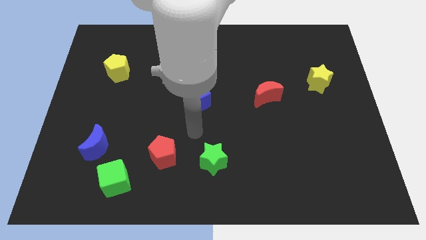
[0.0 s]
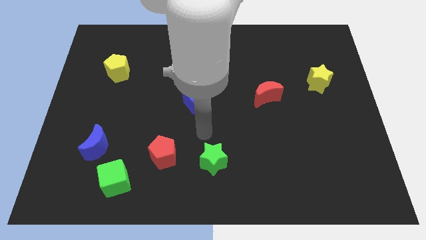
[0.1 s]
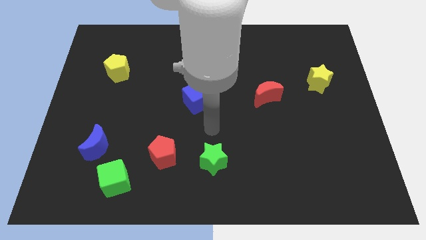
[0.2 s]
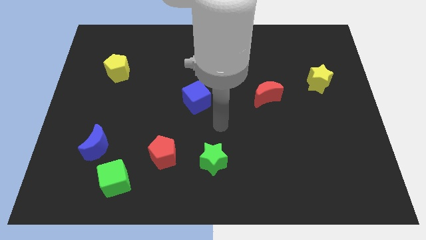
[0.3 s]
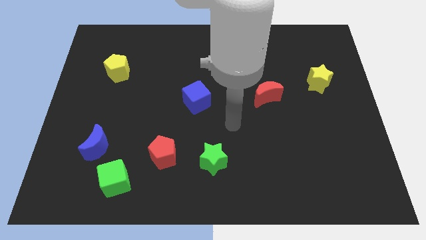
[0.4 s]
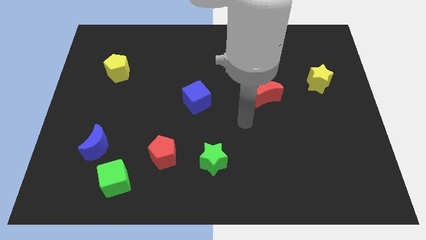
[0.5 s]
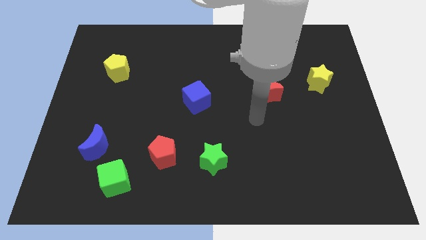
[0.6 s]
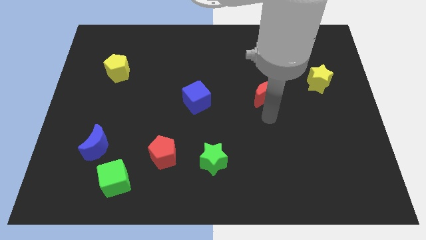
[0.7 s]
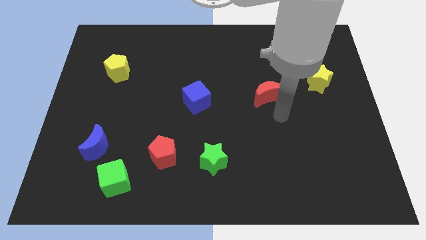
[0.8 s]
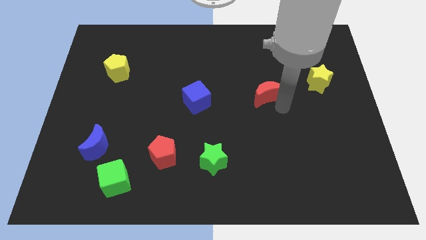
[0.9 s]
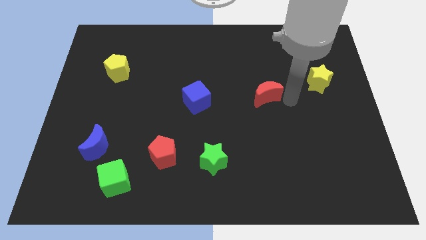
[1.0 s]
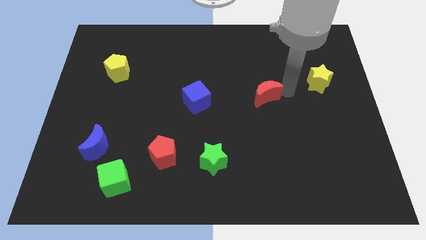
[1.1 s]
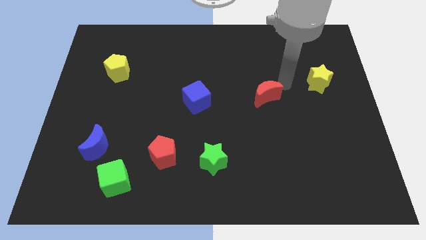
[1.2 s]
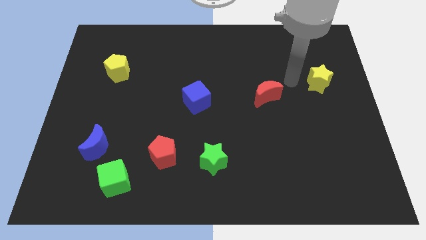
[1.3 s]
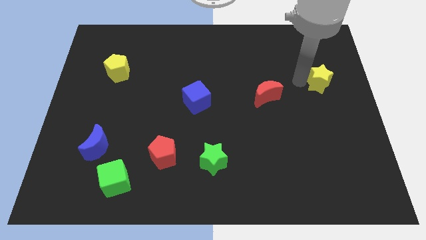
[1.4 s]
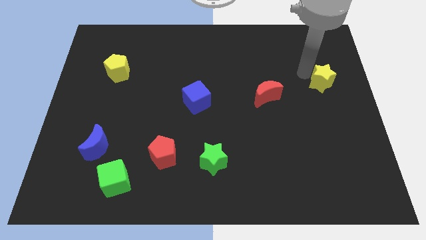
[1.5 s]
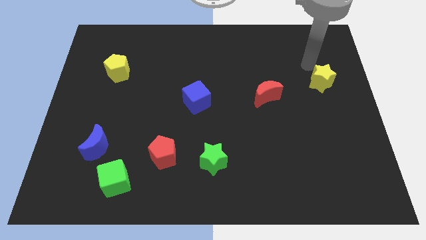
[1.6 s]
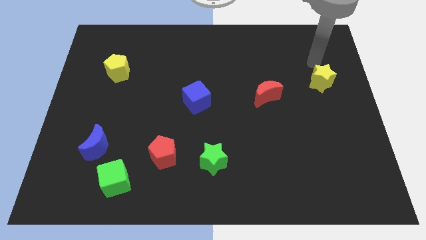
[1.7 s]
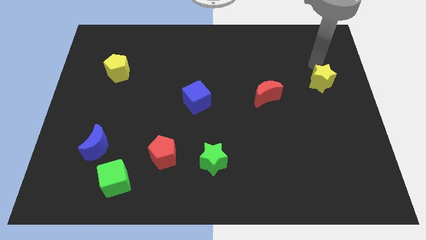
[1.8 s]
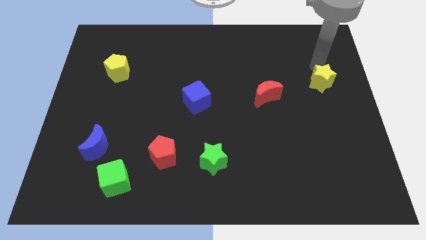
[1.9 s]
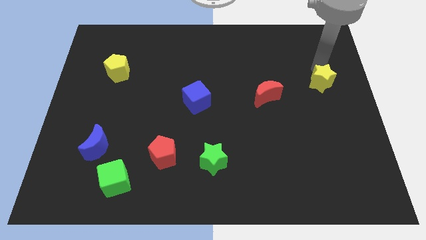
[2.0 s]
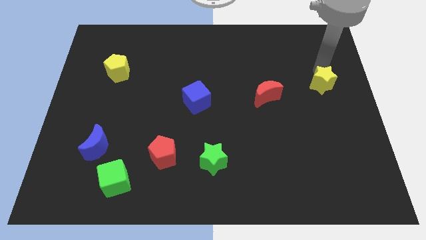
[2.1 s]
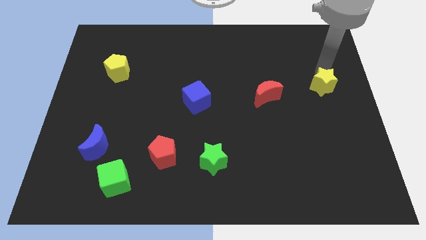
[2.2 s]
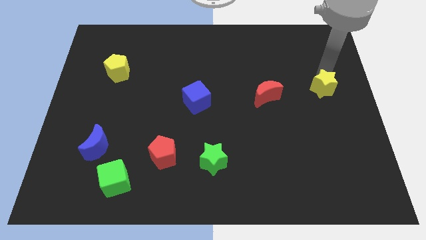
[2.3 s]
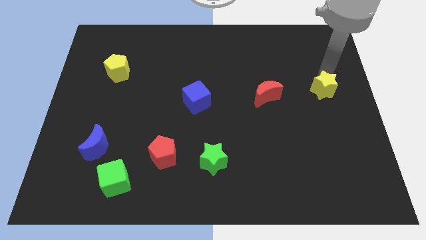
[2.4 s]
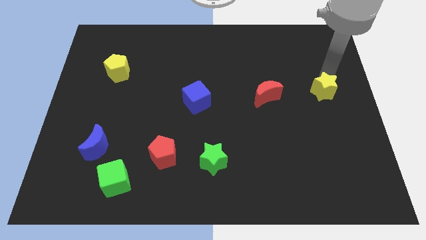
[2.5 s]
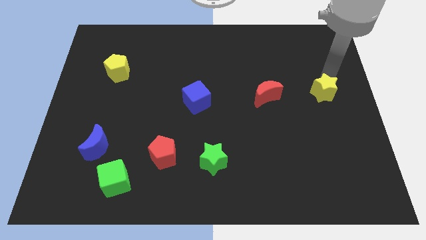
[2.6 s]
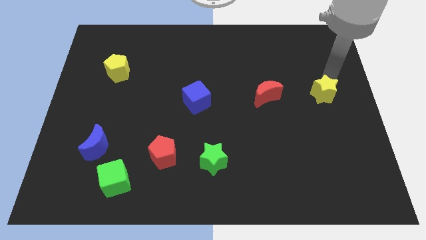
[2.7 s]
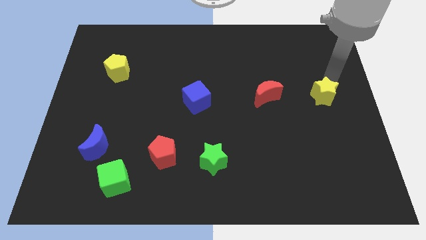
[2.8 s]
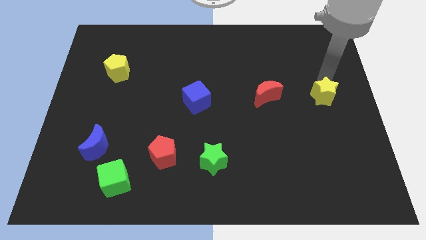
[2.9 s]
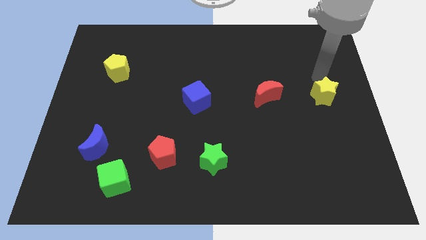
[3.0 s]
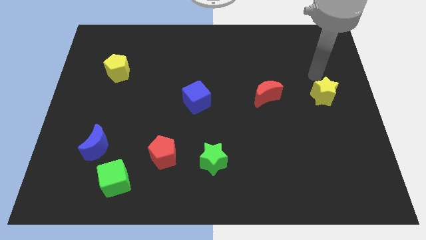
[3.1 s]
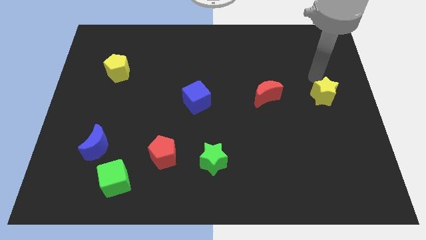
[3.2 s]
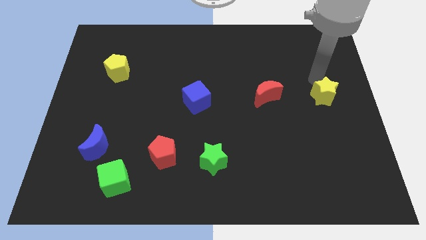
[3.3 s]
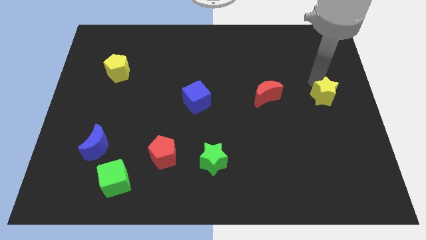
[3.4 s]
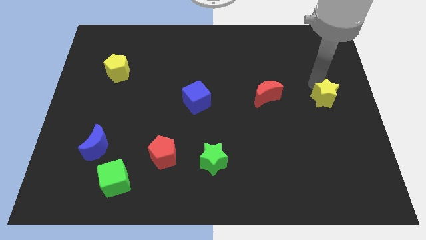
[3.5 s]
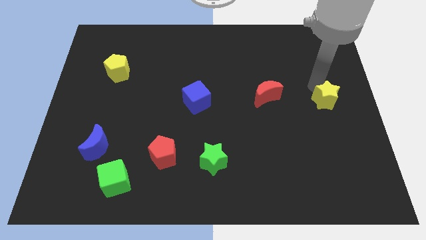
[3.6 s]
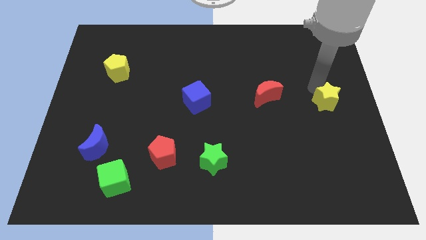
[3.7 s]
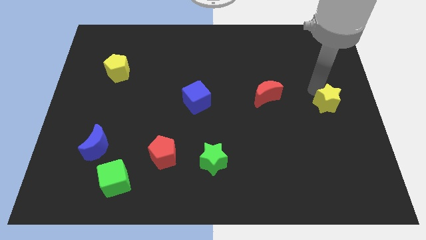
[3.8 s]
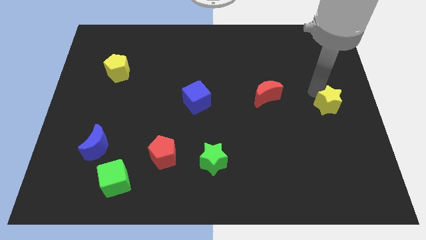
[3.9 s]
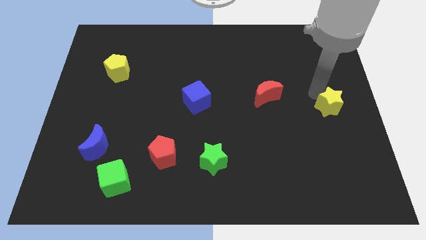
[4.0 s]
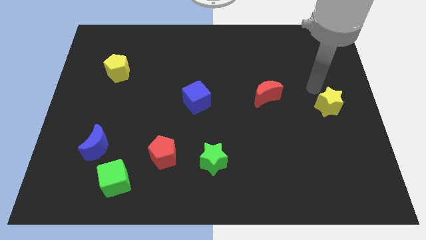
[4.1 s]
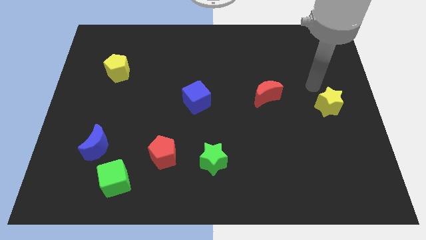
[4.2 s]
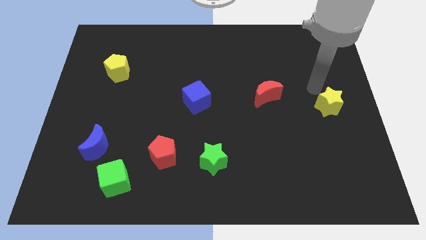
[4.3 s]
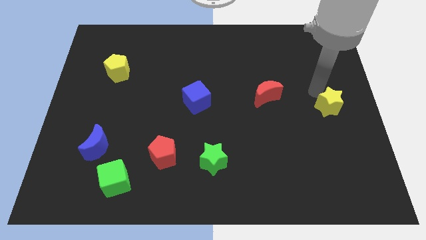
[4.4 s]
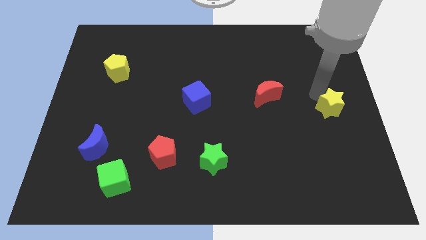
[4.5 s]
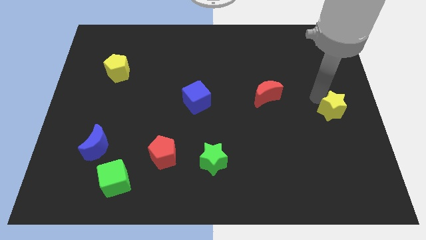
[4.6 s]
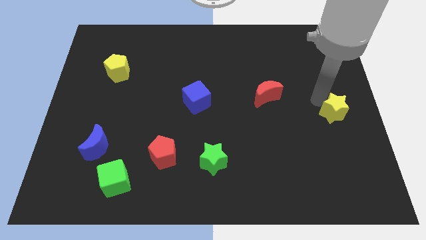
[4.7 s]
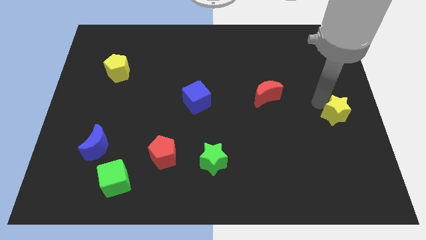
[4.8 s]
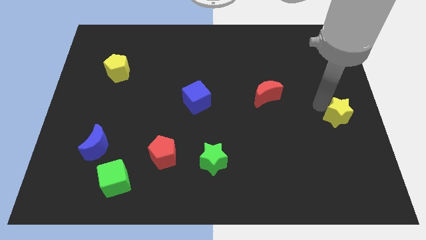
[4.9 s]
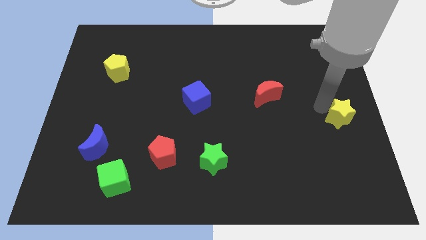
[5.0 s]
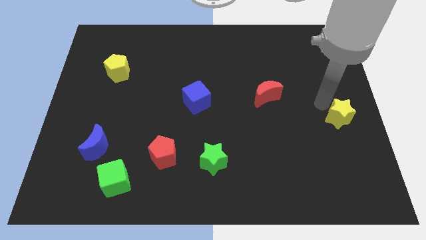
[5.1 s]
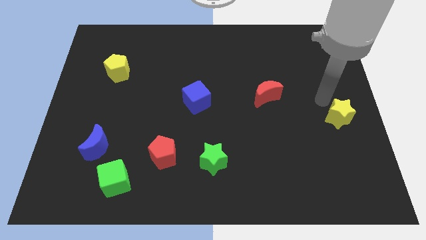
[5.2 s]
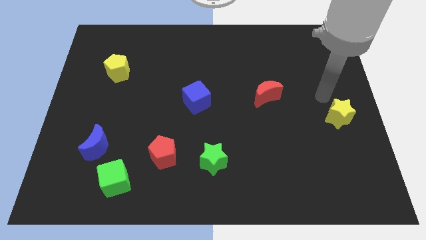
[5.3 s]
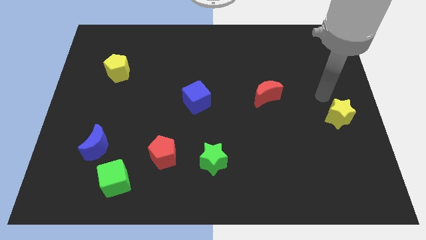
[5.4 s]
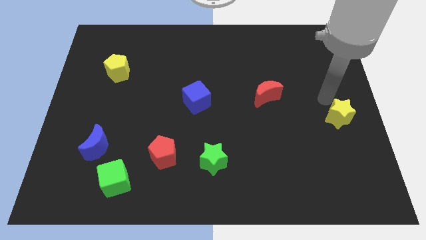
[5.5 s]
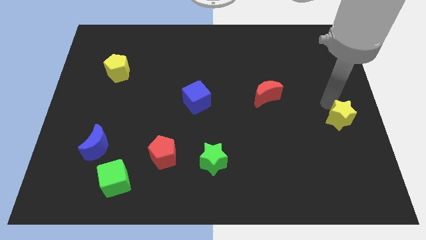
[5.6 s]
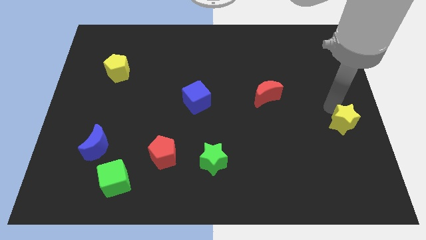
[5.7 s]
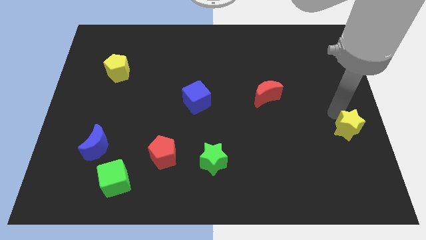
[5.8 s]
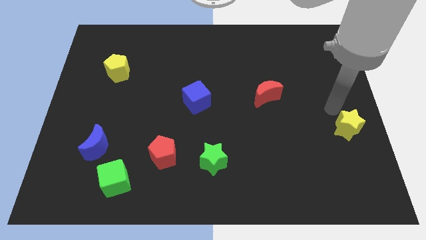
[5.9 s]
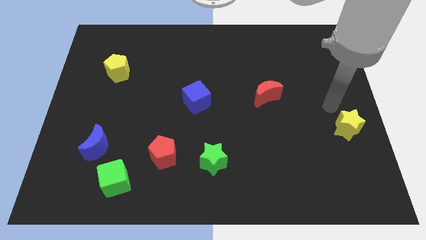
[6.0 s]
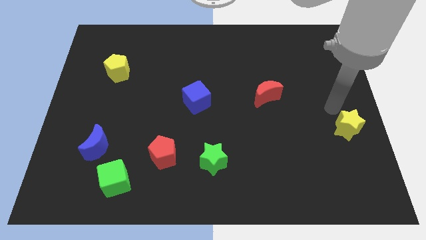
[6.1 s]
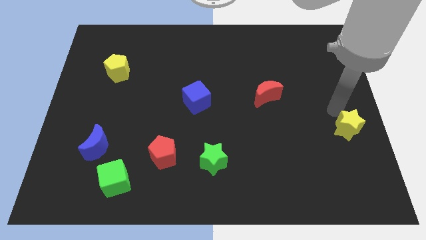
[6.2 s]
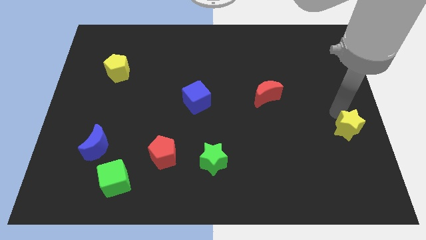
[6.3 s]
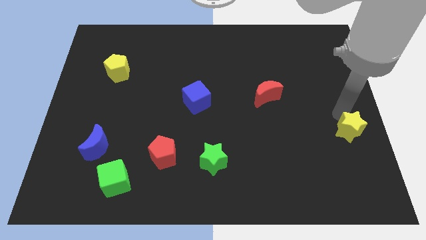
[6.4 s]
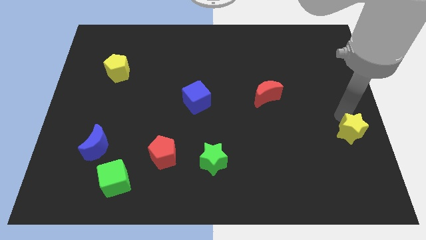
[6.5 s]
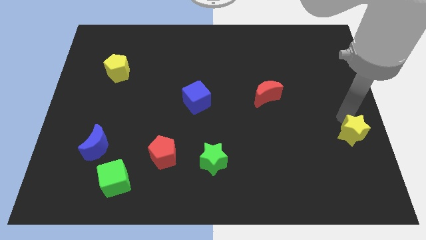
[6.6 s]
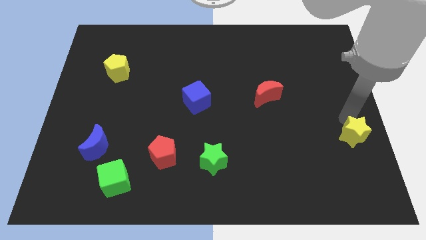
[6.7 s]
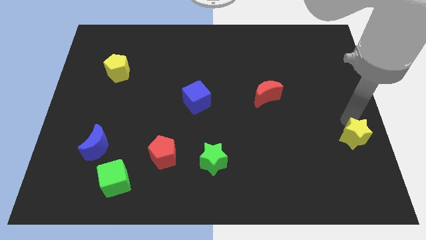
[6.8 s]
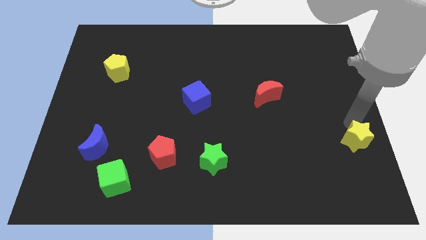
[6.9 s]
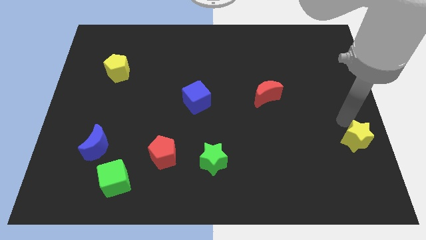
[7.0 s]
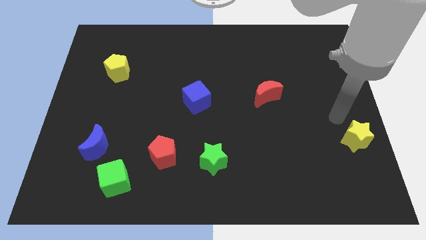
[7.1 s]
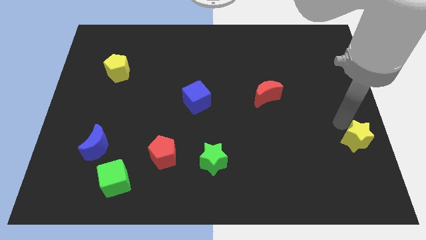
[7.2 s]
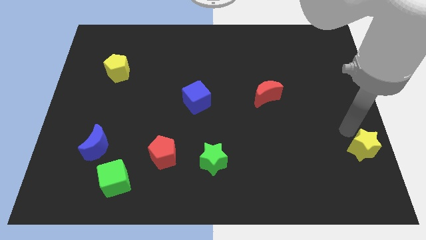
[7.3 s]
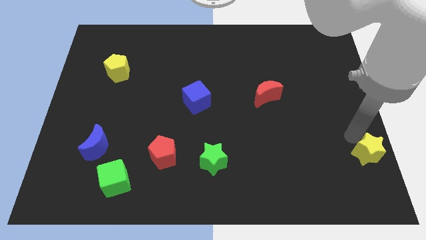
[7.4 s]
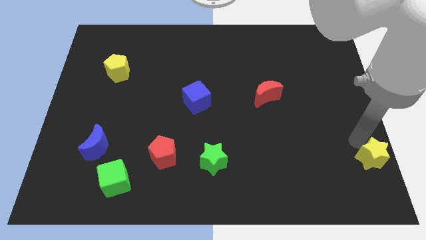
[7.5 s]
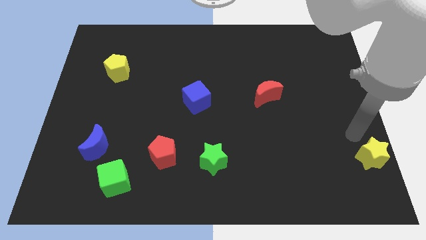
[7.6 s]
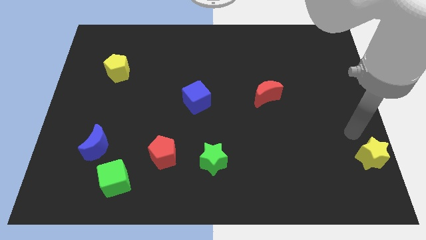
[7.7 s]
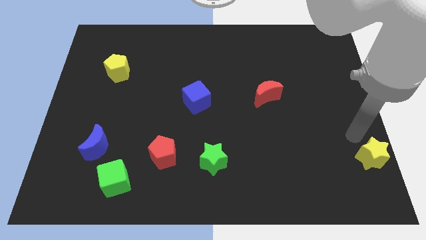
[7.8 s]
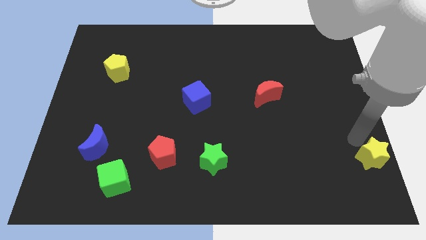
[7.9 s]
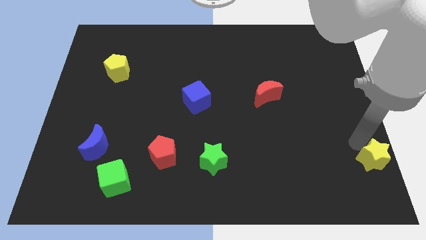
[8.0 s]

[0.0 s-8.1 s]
put the yellow star to the bottom right
